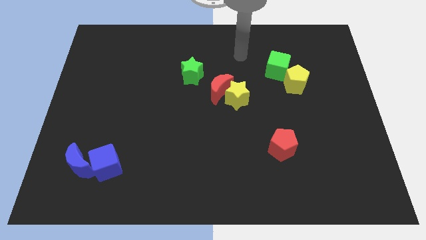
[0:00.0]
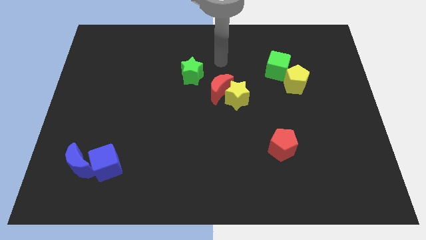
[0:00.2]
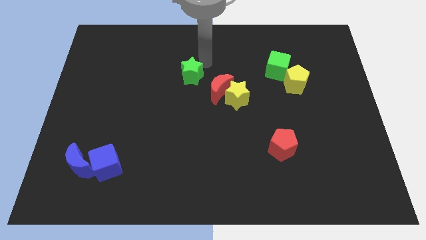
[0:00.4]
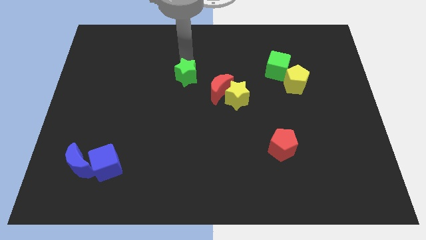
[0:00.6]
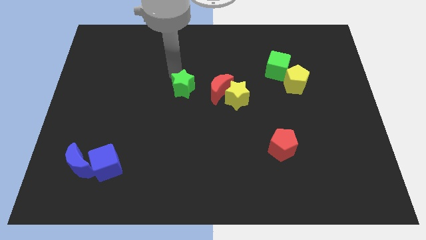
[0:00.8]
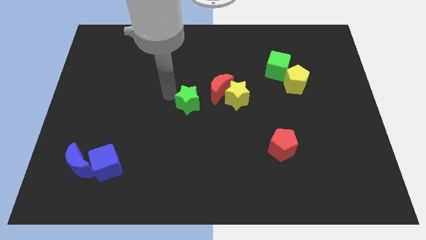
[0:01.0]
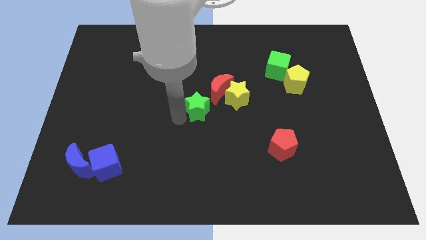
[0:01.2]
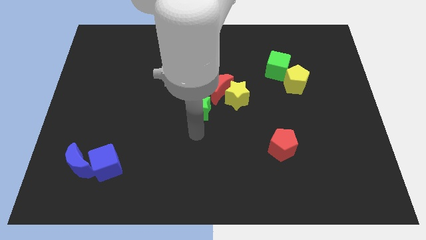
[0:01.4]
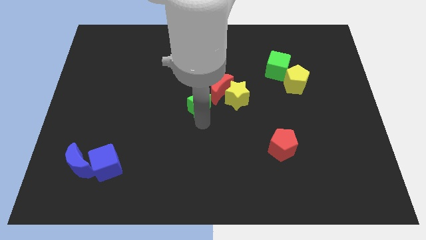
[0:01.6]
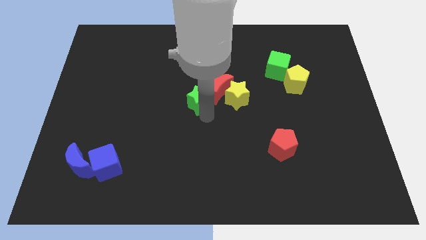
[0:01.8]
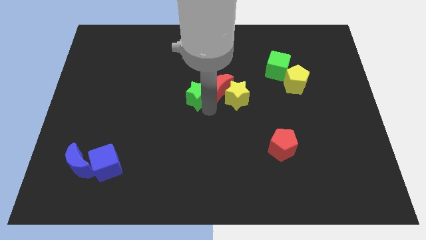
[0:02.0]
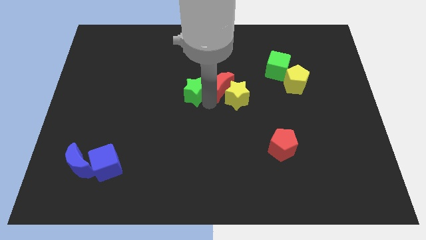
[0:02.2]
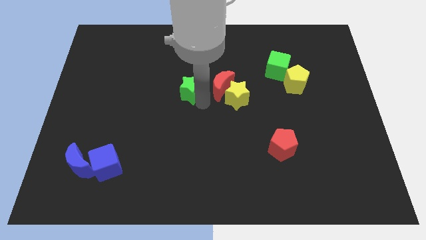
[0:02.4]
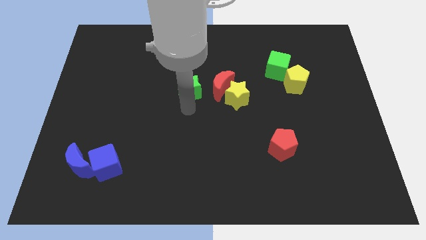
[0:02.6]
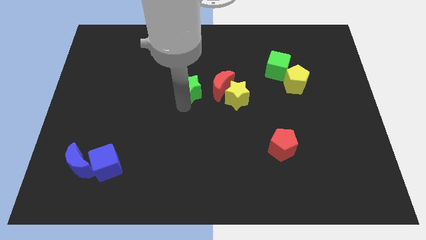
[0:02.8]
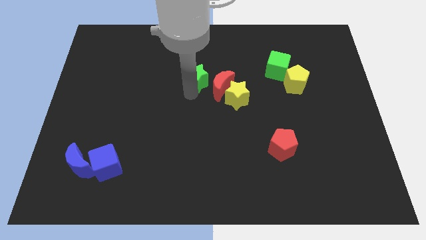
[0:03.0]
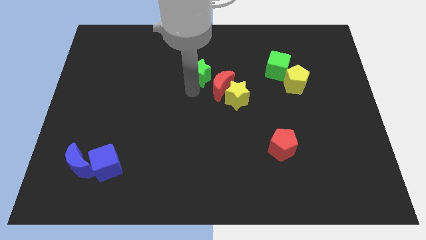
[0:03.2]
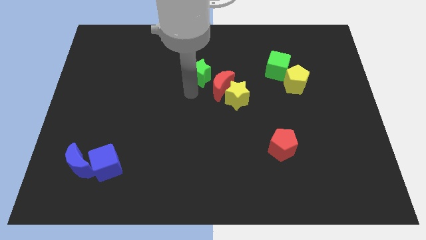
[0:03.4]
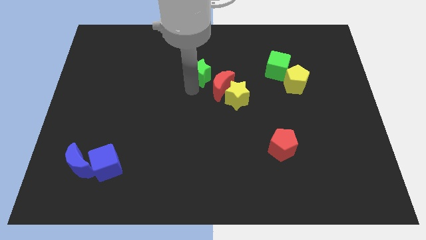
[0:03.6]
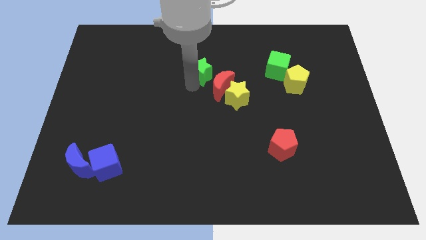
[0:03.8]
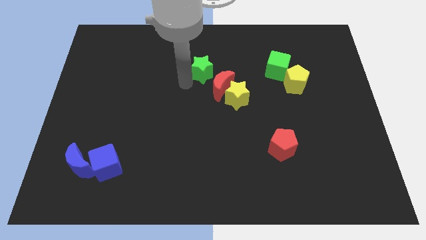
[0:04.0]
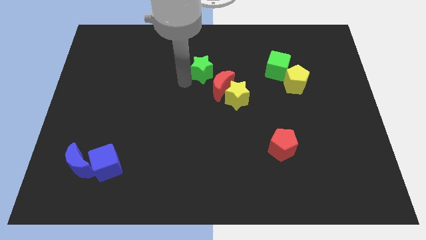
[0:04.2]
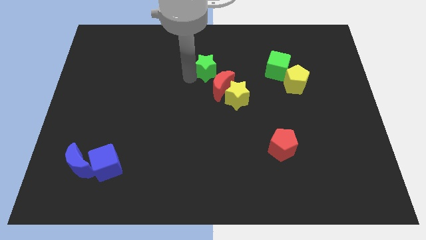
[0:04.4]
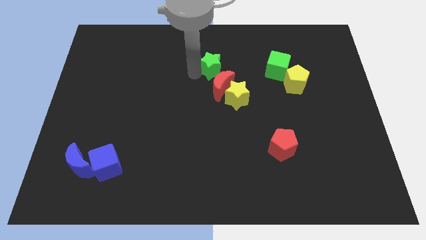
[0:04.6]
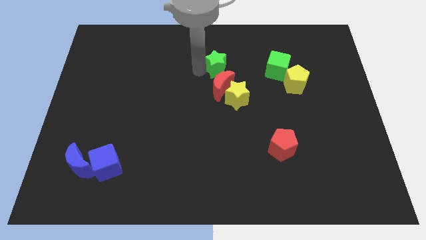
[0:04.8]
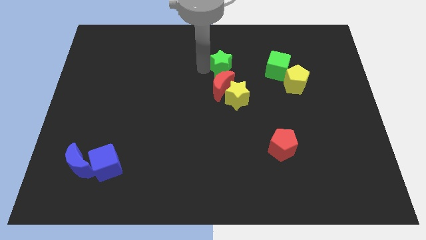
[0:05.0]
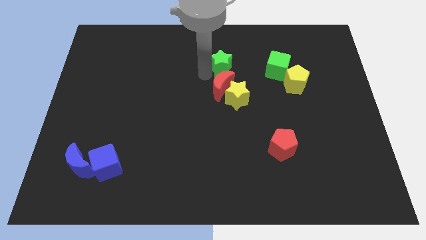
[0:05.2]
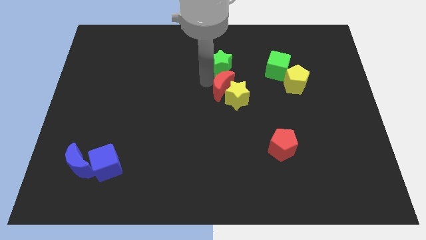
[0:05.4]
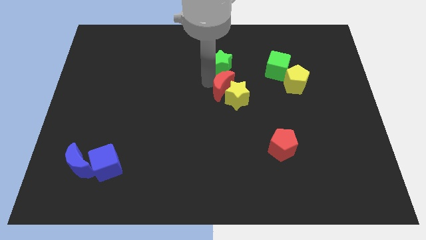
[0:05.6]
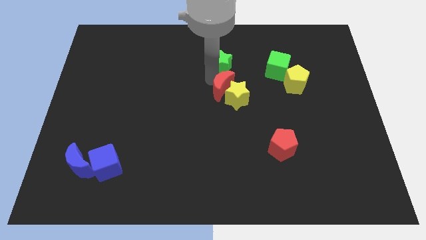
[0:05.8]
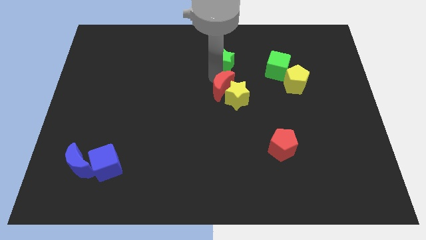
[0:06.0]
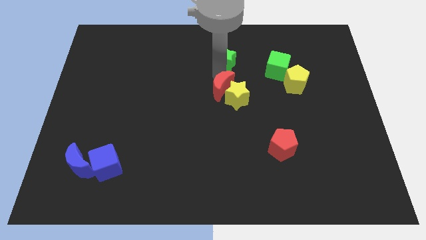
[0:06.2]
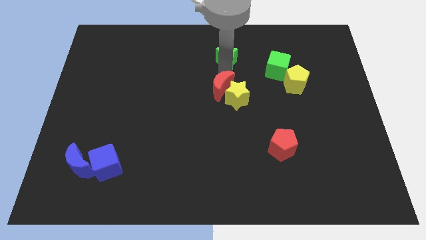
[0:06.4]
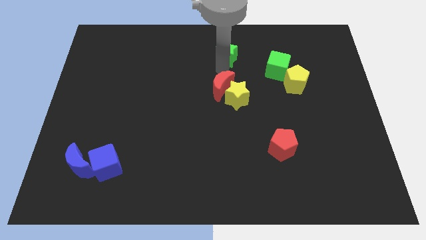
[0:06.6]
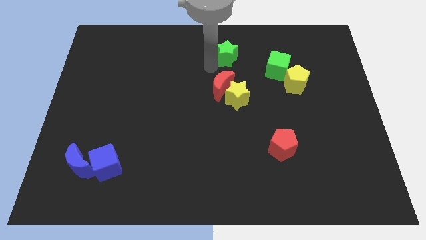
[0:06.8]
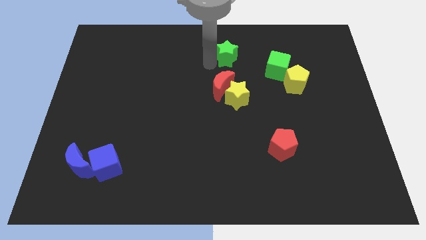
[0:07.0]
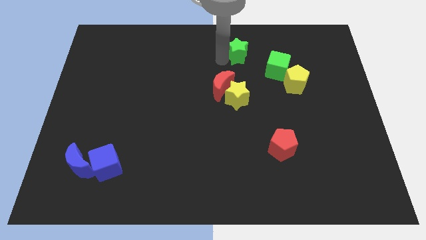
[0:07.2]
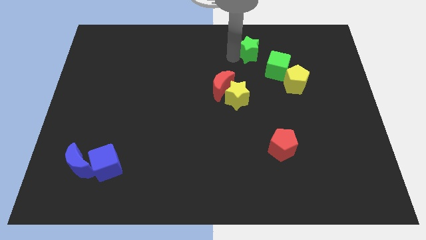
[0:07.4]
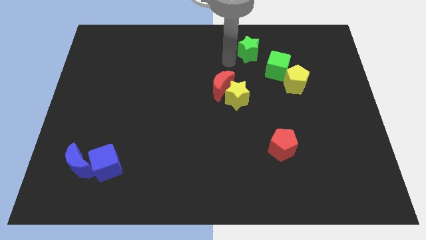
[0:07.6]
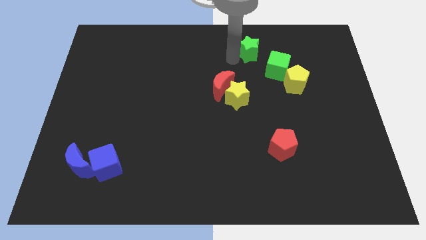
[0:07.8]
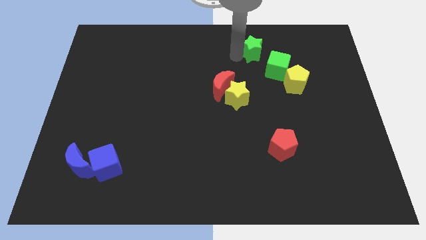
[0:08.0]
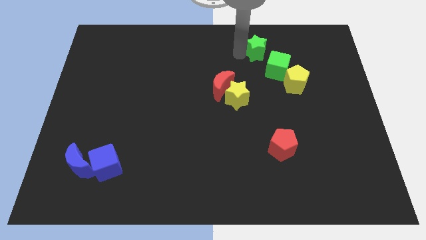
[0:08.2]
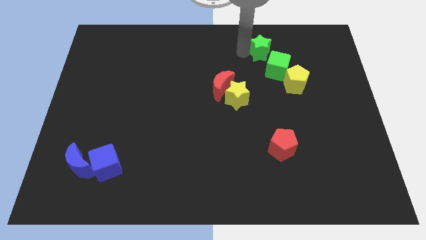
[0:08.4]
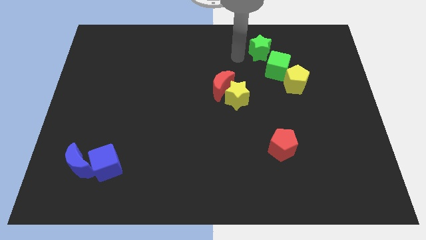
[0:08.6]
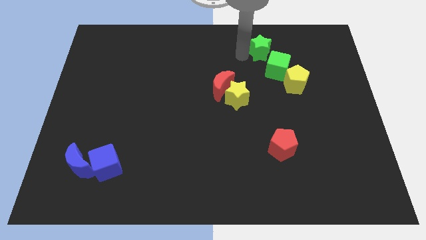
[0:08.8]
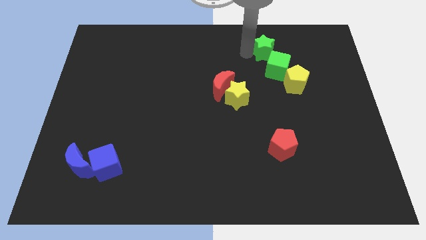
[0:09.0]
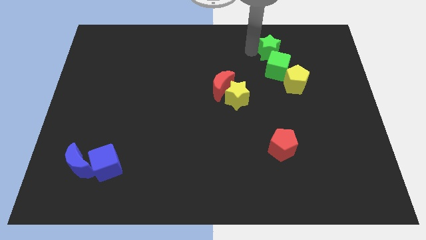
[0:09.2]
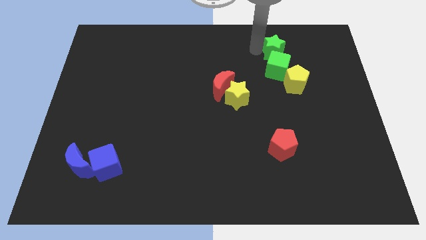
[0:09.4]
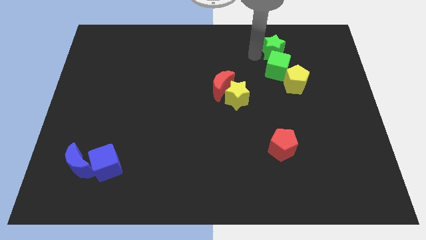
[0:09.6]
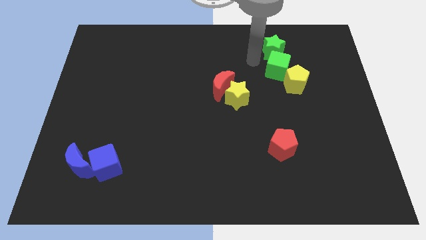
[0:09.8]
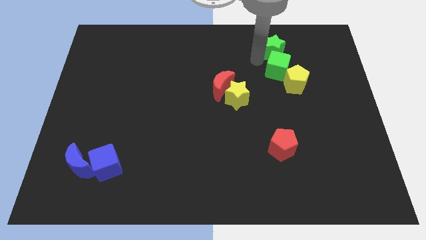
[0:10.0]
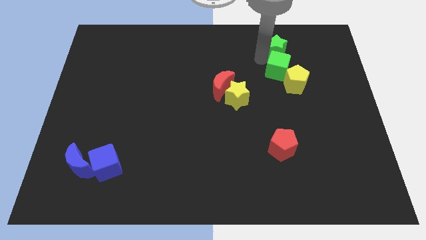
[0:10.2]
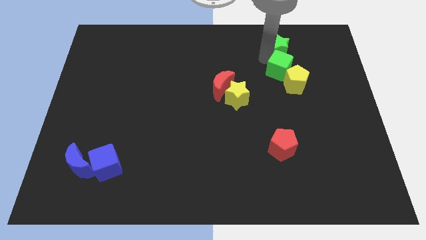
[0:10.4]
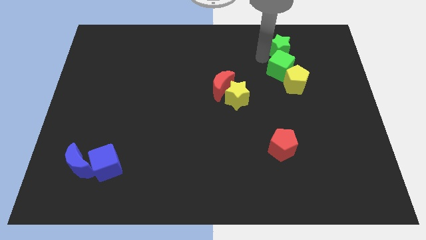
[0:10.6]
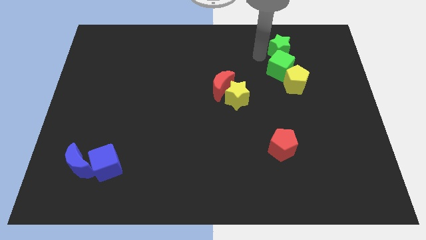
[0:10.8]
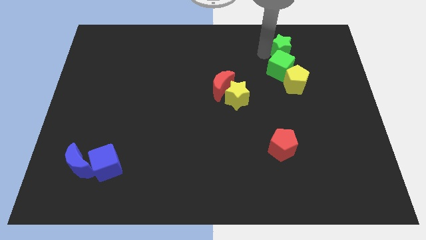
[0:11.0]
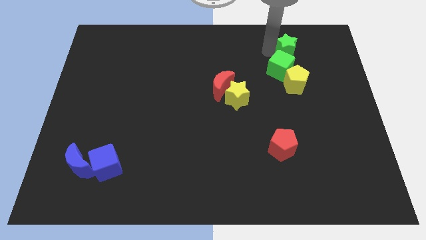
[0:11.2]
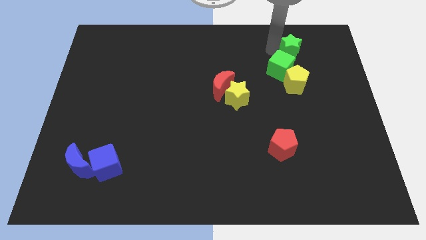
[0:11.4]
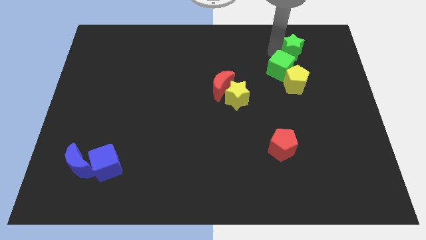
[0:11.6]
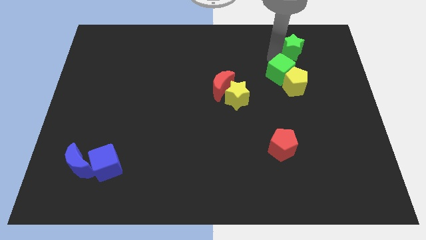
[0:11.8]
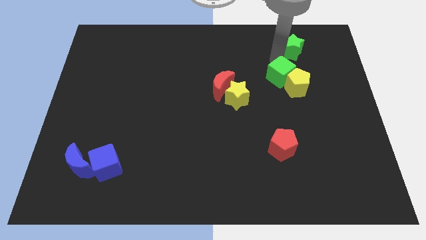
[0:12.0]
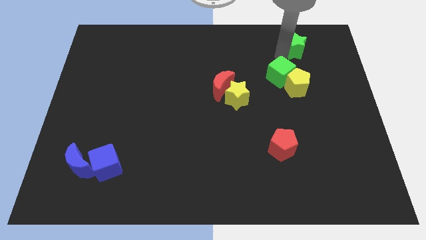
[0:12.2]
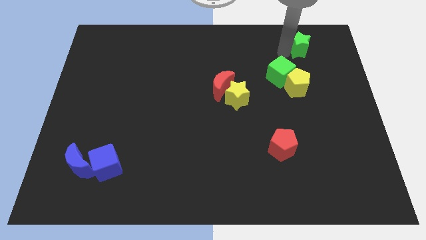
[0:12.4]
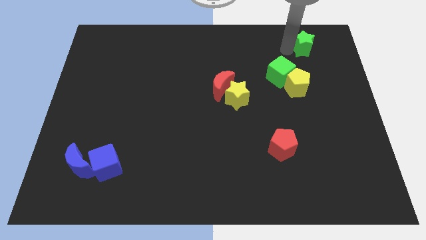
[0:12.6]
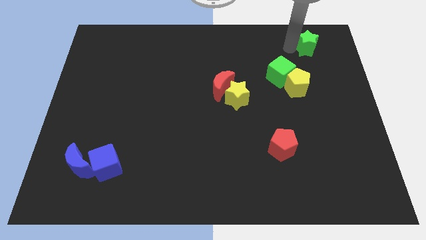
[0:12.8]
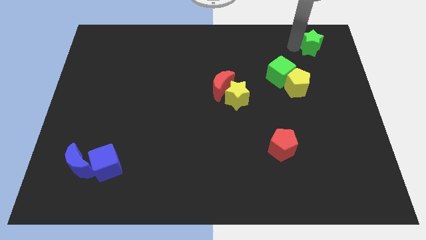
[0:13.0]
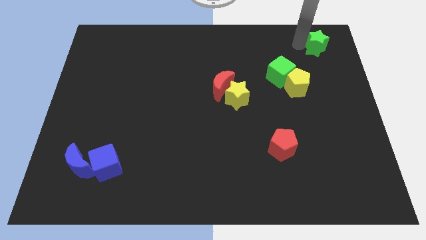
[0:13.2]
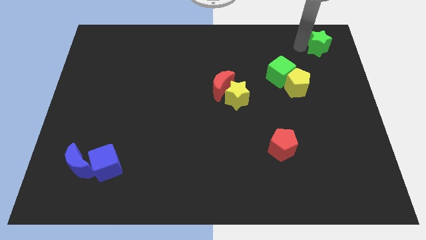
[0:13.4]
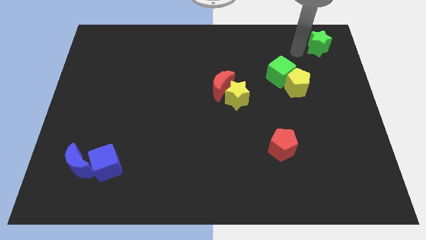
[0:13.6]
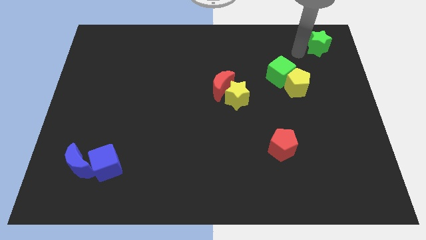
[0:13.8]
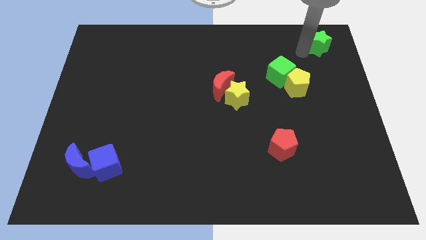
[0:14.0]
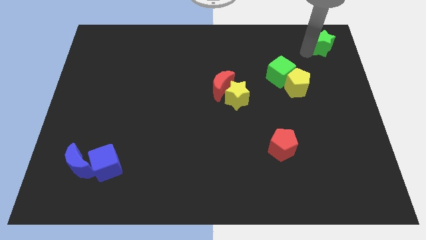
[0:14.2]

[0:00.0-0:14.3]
put the green star to the upper right corner
